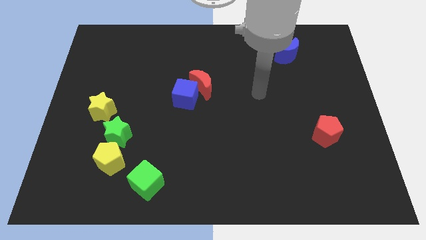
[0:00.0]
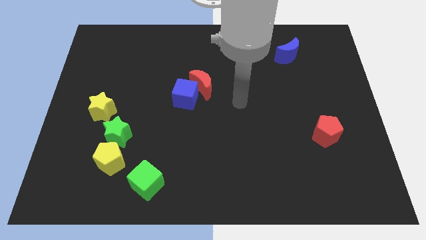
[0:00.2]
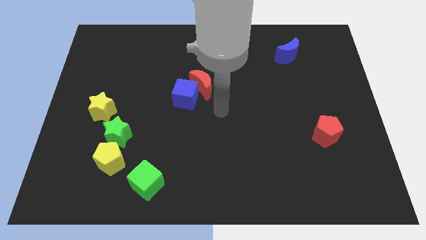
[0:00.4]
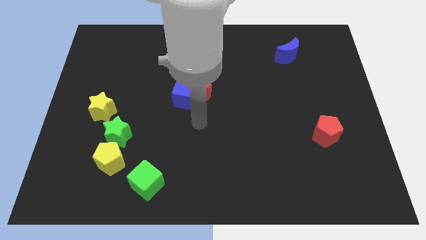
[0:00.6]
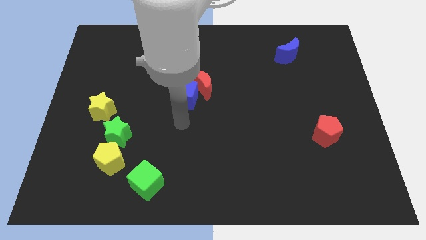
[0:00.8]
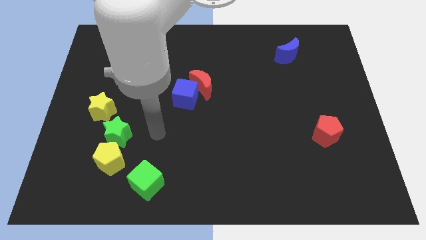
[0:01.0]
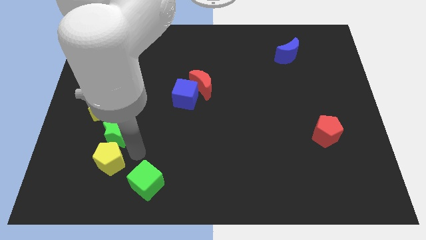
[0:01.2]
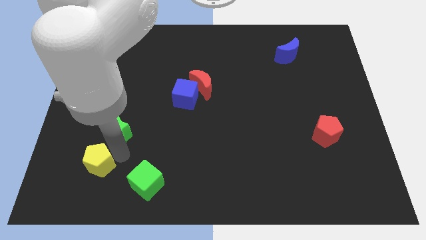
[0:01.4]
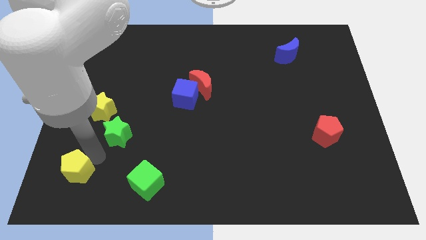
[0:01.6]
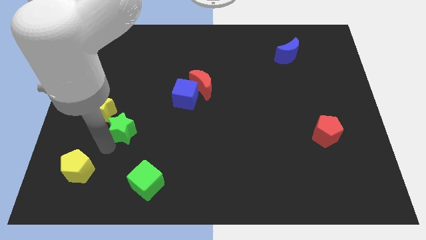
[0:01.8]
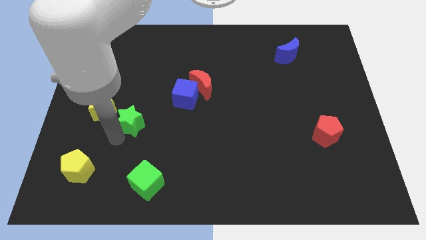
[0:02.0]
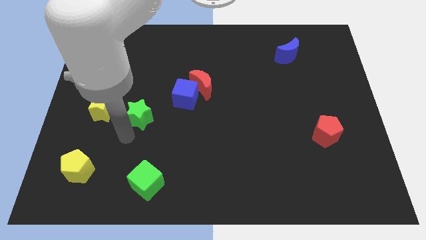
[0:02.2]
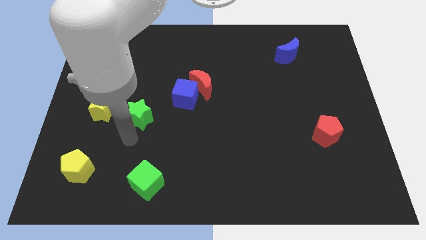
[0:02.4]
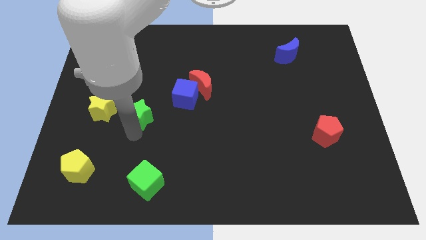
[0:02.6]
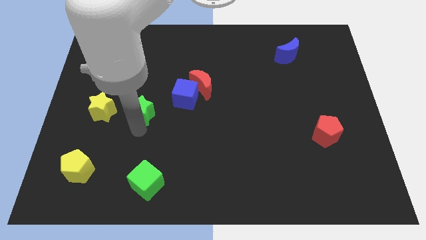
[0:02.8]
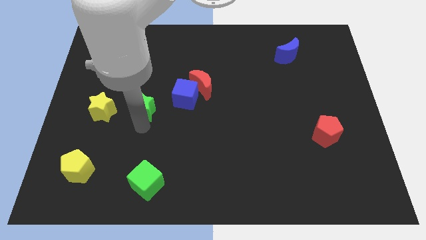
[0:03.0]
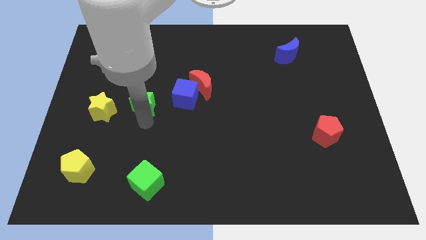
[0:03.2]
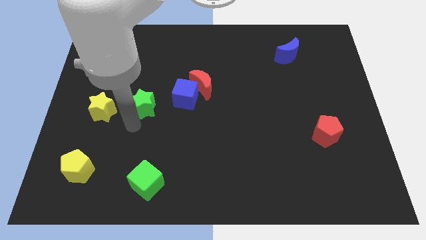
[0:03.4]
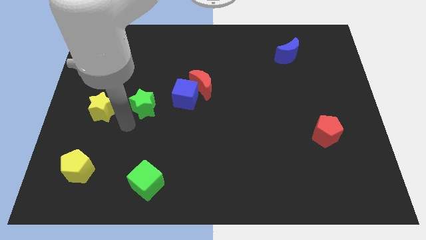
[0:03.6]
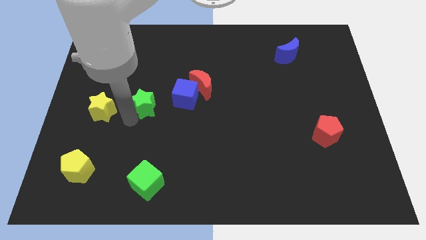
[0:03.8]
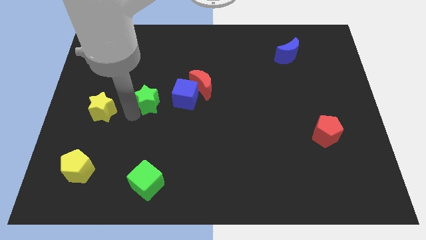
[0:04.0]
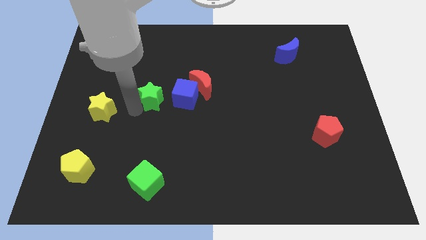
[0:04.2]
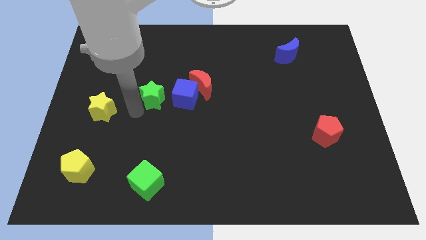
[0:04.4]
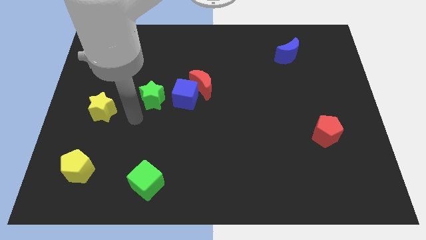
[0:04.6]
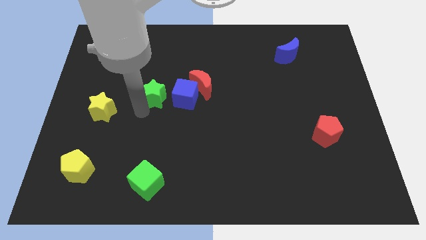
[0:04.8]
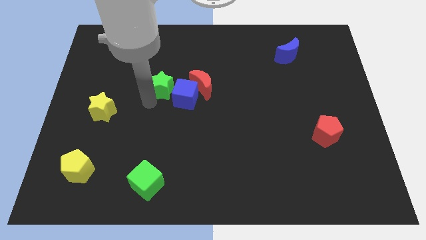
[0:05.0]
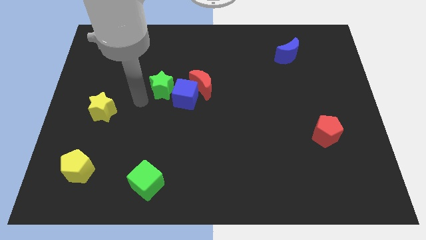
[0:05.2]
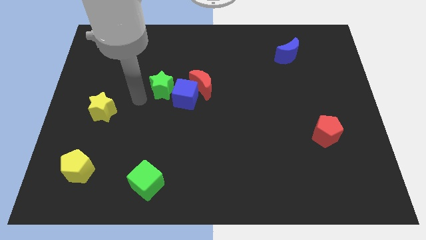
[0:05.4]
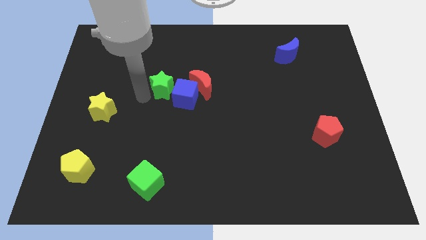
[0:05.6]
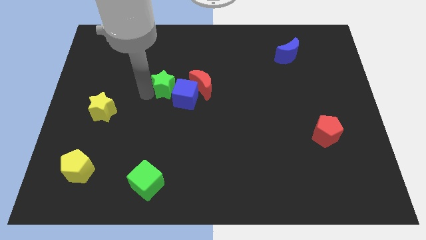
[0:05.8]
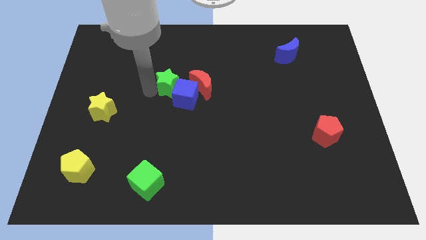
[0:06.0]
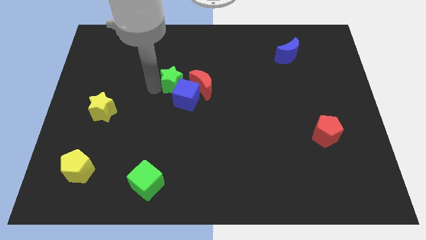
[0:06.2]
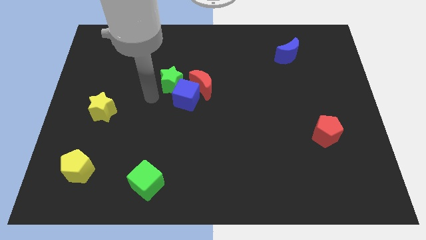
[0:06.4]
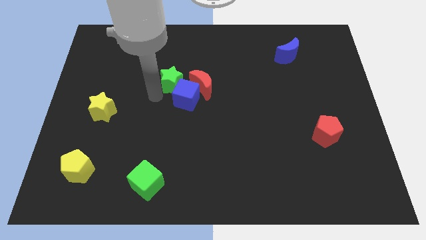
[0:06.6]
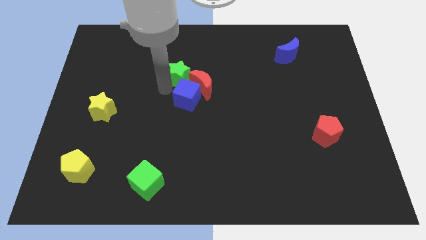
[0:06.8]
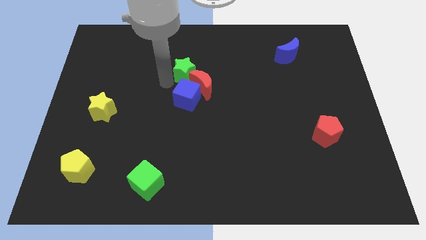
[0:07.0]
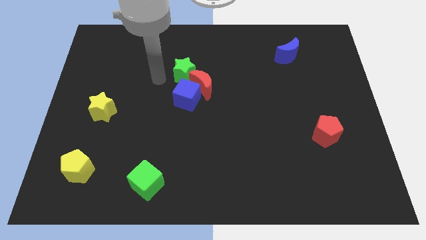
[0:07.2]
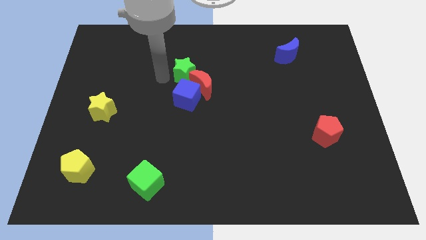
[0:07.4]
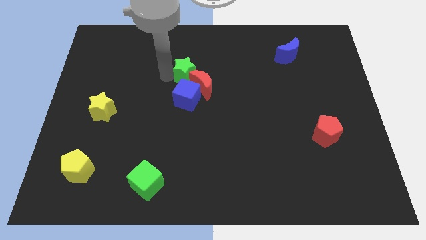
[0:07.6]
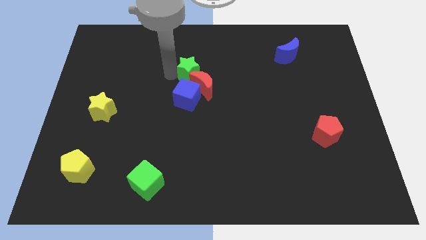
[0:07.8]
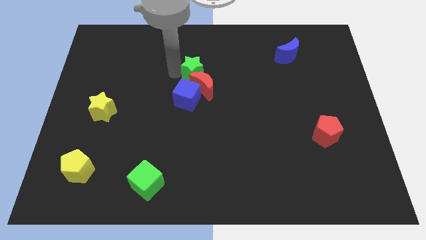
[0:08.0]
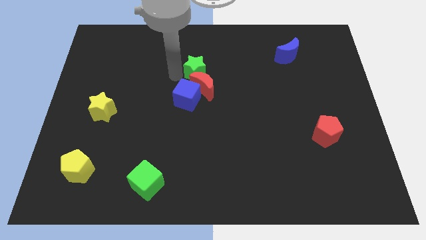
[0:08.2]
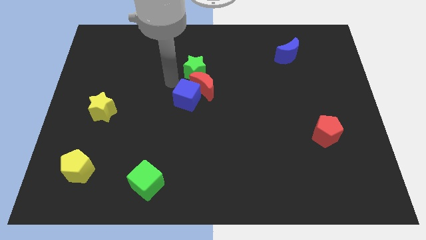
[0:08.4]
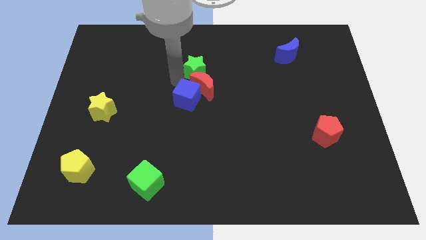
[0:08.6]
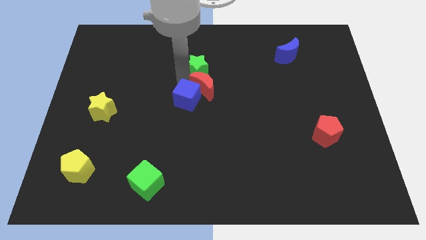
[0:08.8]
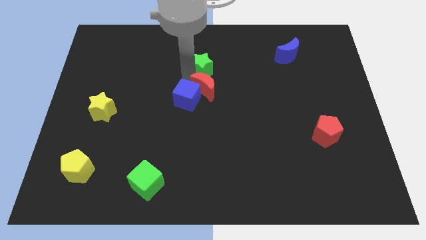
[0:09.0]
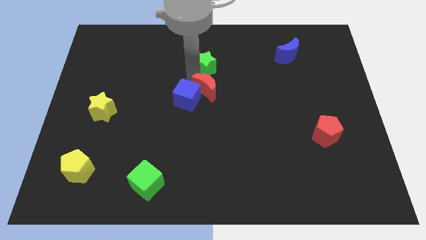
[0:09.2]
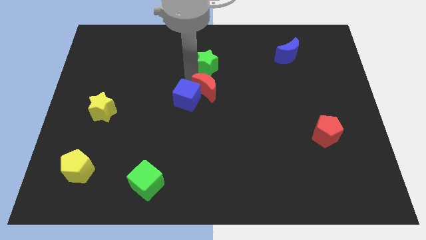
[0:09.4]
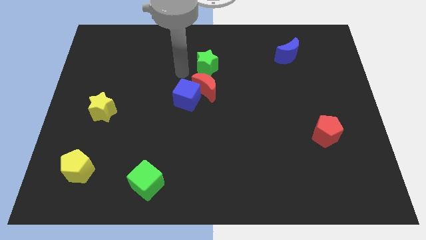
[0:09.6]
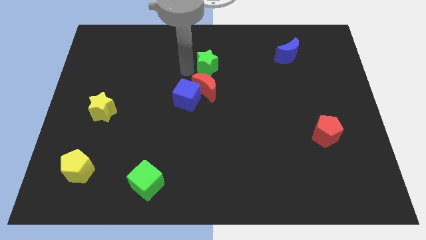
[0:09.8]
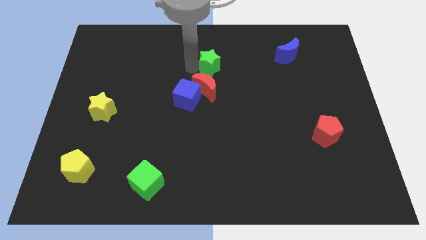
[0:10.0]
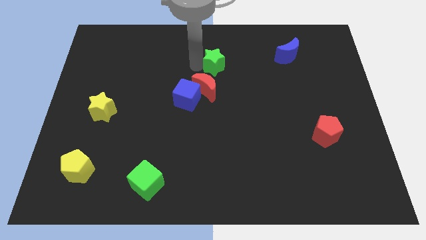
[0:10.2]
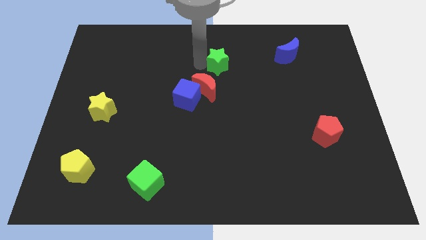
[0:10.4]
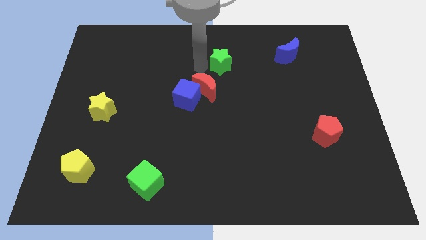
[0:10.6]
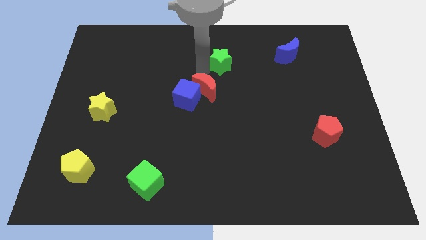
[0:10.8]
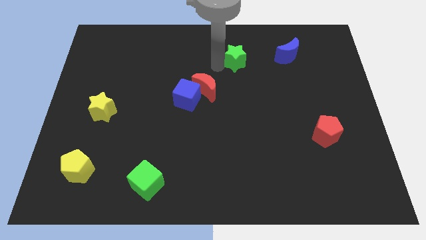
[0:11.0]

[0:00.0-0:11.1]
slide the green star to the left of the blue moon

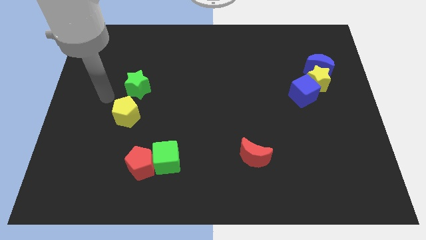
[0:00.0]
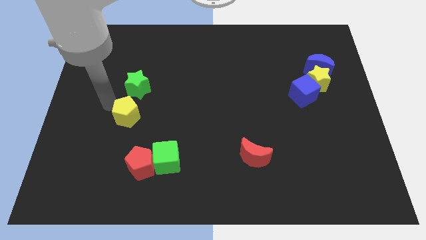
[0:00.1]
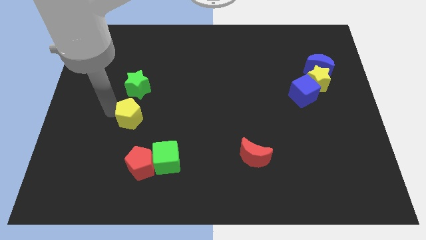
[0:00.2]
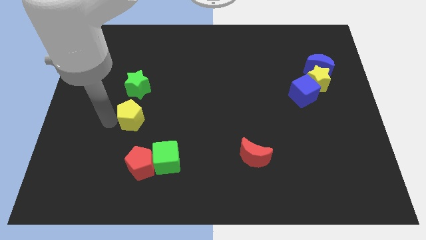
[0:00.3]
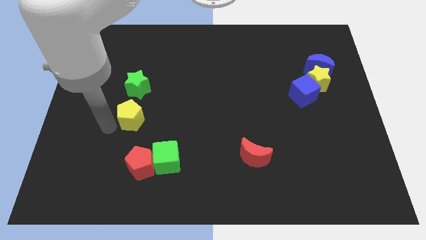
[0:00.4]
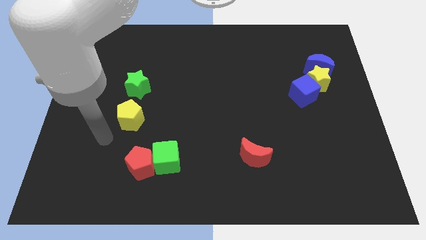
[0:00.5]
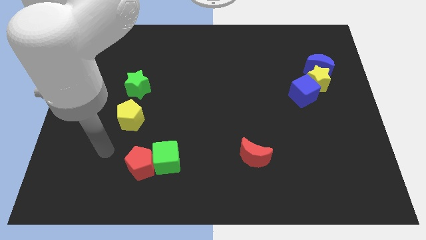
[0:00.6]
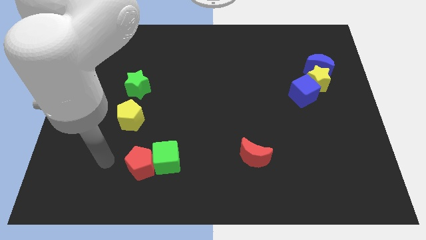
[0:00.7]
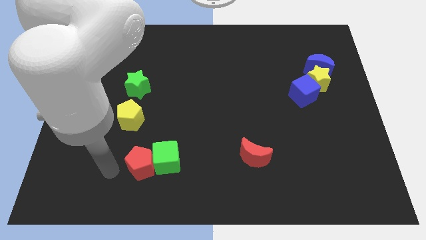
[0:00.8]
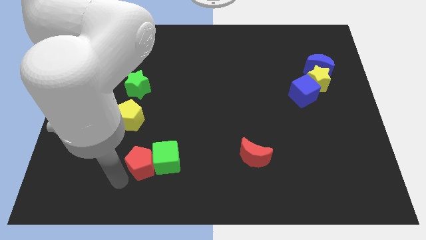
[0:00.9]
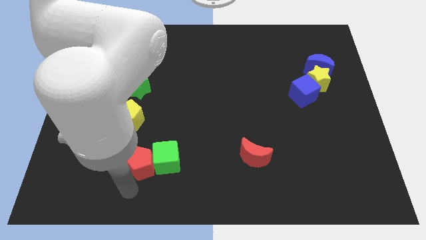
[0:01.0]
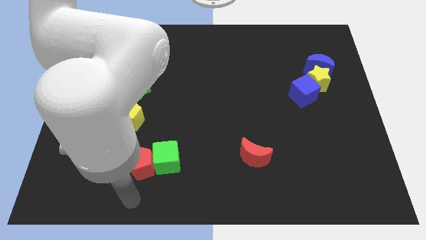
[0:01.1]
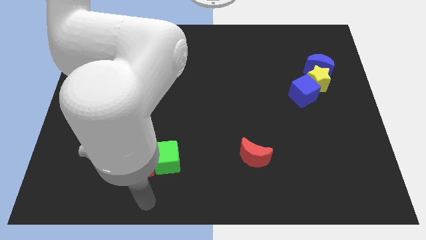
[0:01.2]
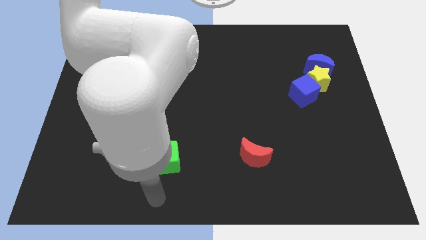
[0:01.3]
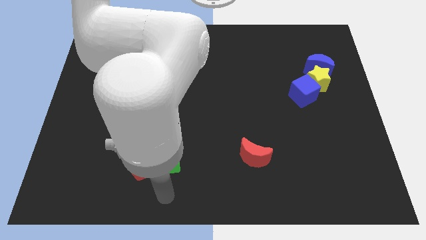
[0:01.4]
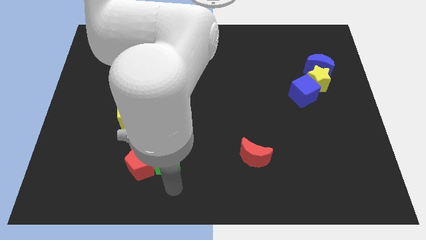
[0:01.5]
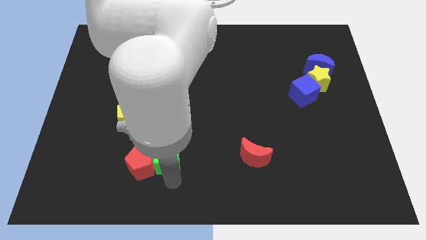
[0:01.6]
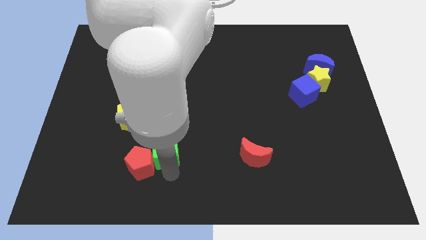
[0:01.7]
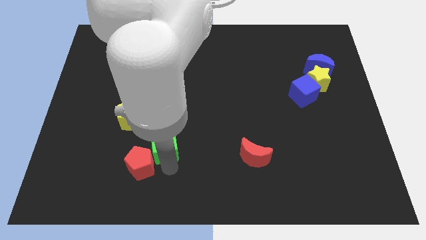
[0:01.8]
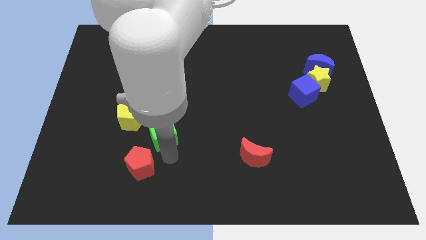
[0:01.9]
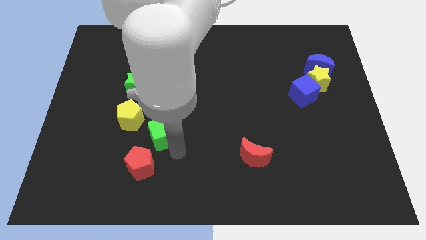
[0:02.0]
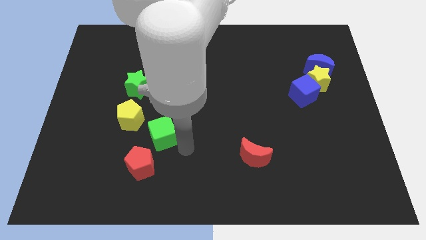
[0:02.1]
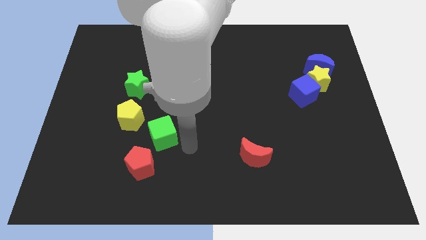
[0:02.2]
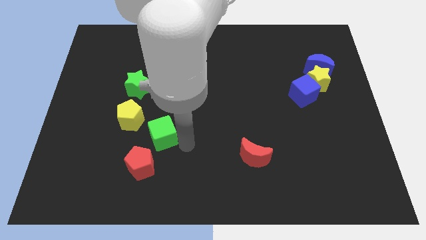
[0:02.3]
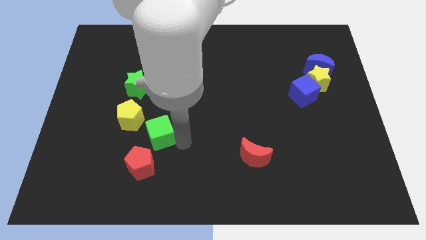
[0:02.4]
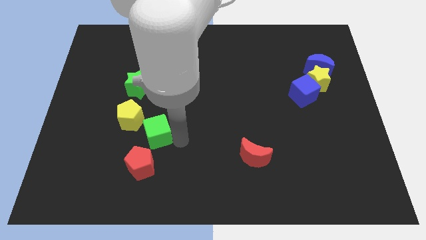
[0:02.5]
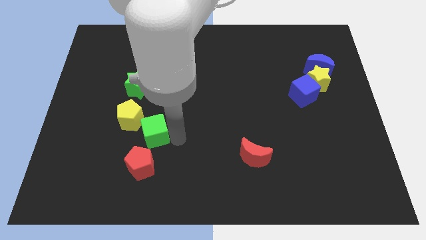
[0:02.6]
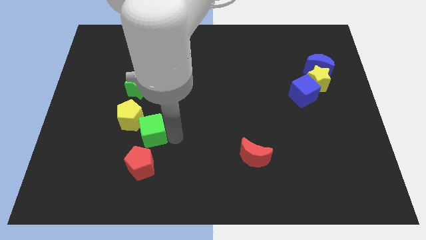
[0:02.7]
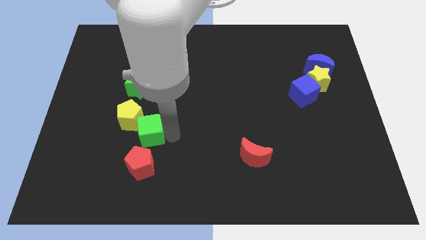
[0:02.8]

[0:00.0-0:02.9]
move the green cube below the green star
